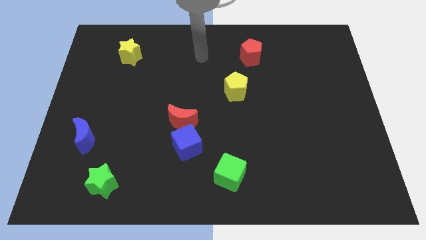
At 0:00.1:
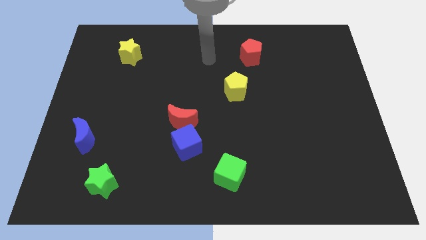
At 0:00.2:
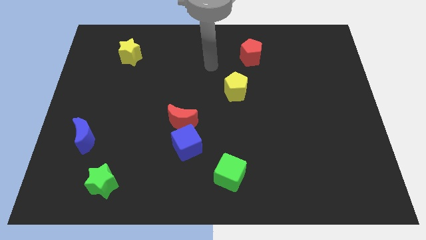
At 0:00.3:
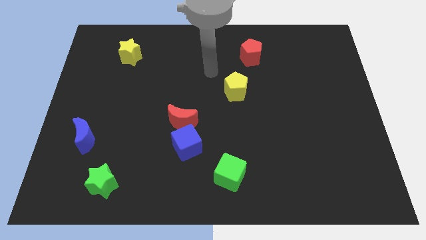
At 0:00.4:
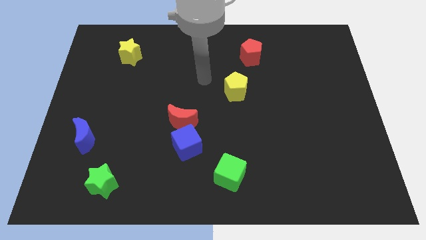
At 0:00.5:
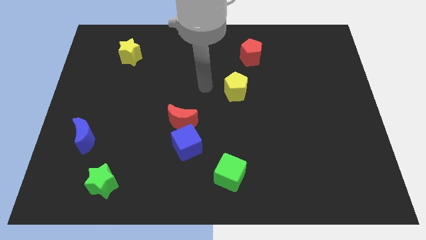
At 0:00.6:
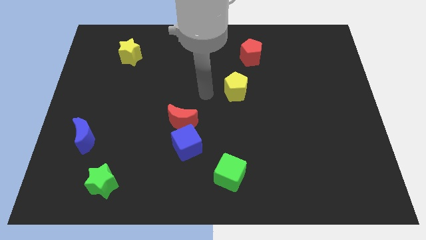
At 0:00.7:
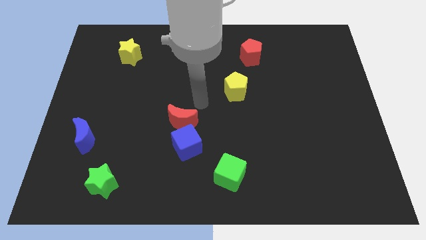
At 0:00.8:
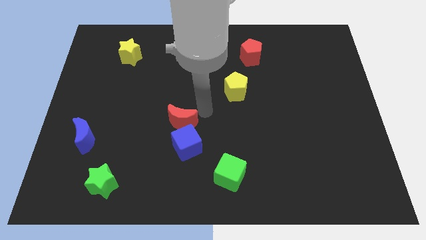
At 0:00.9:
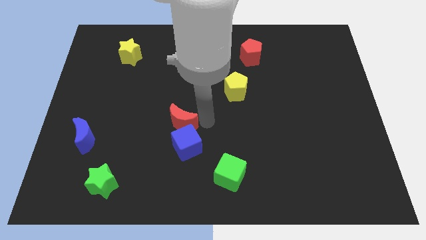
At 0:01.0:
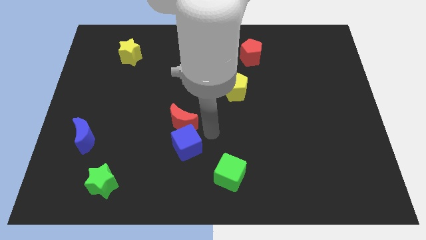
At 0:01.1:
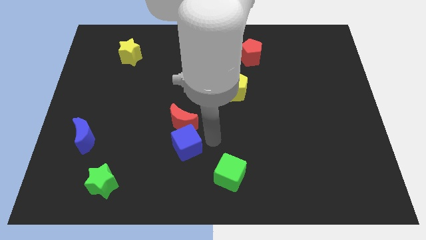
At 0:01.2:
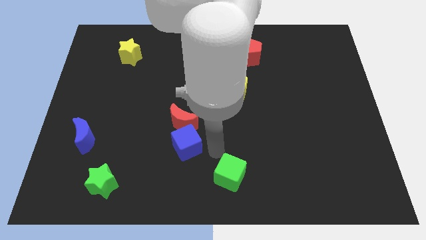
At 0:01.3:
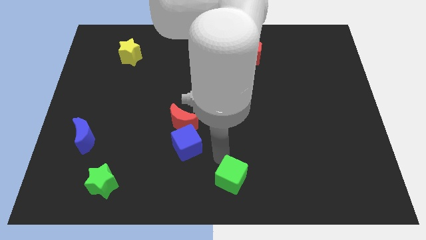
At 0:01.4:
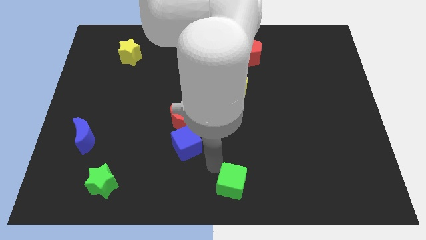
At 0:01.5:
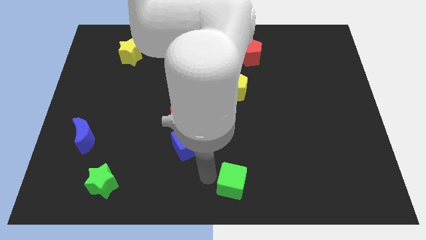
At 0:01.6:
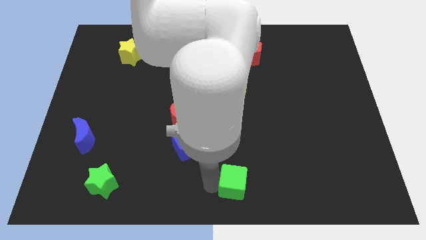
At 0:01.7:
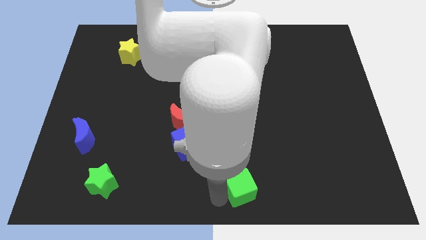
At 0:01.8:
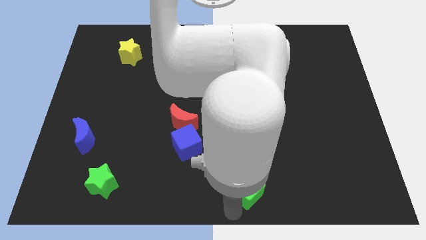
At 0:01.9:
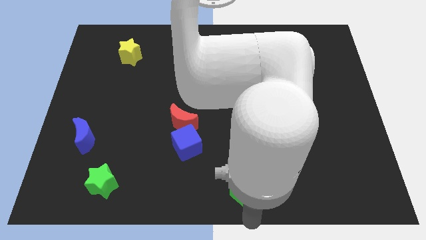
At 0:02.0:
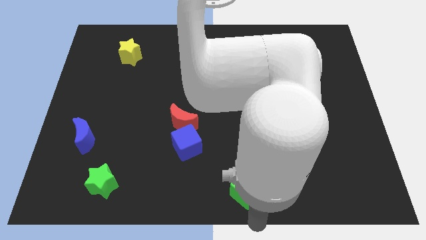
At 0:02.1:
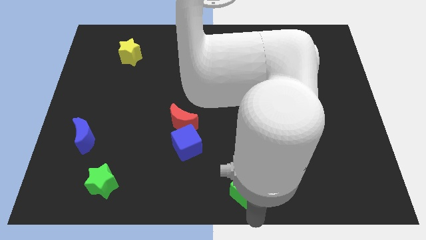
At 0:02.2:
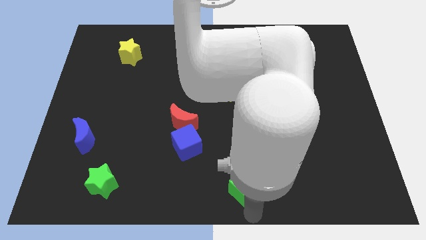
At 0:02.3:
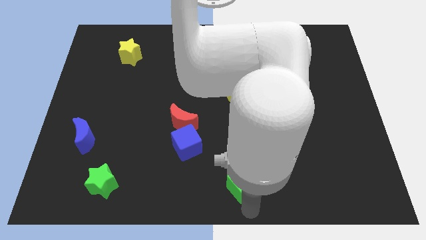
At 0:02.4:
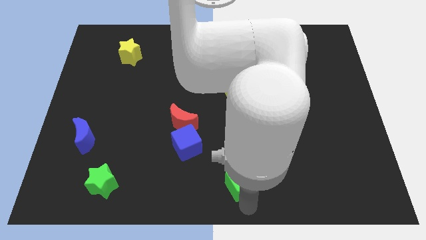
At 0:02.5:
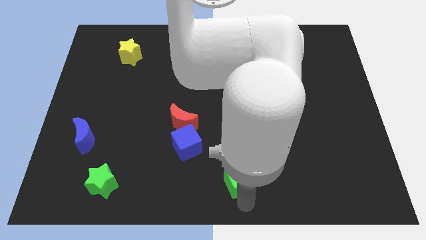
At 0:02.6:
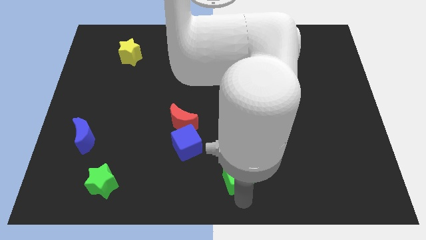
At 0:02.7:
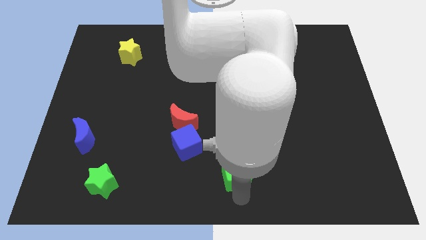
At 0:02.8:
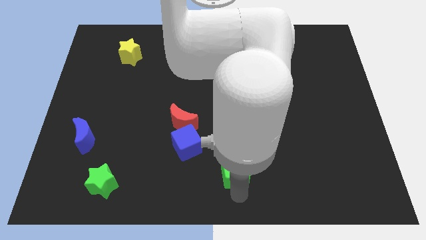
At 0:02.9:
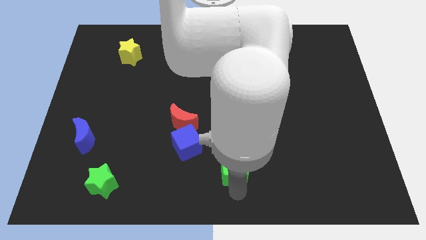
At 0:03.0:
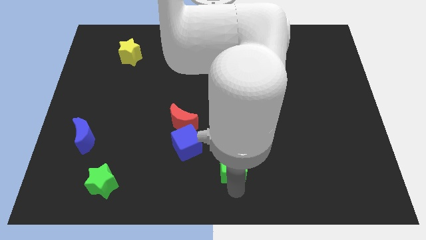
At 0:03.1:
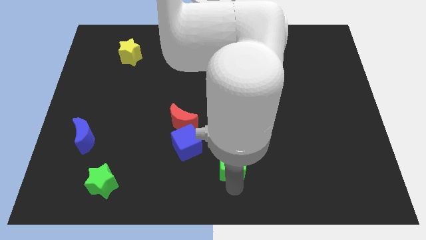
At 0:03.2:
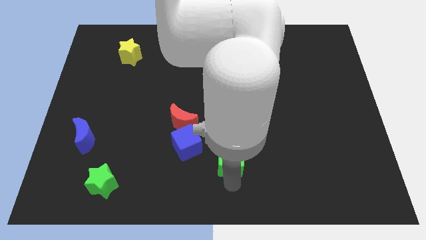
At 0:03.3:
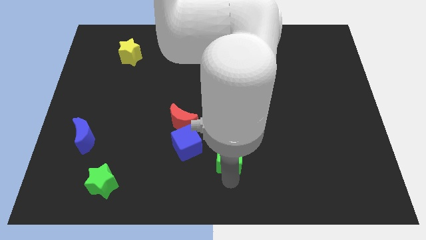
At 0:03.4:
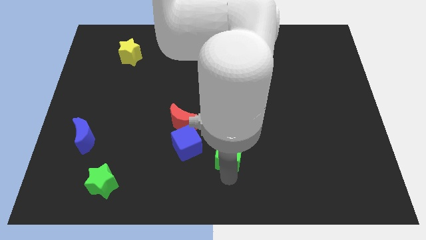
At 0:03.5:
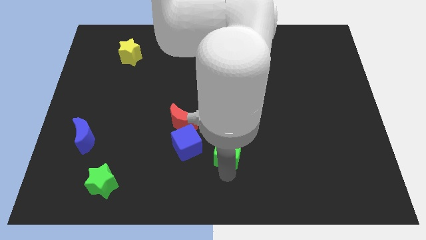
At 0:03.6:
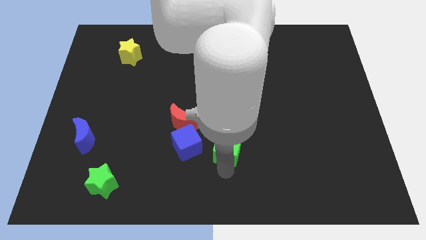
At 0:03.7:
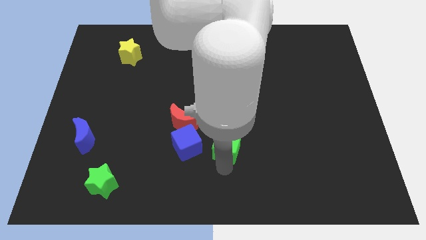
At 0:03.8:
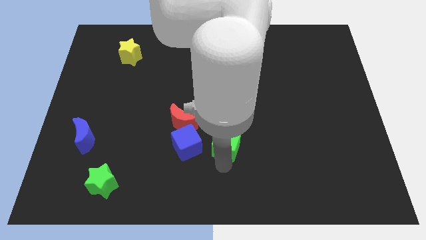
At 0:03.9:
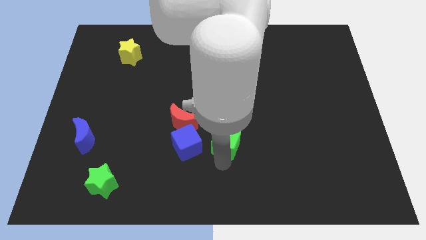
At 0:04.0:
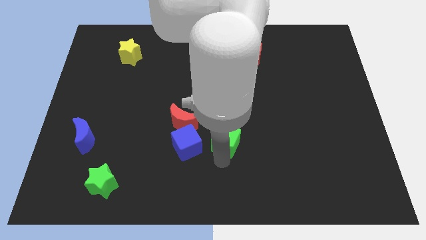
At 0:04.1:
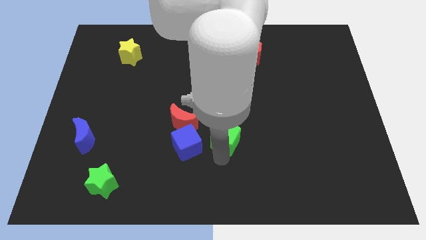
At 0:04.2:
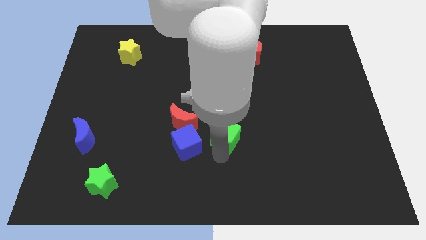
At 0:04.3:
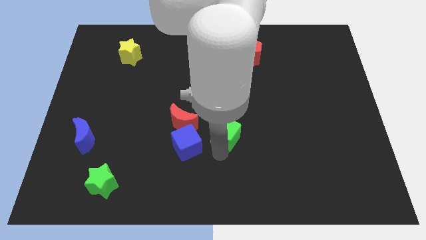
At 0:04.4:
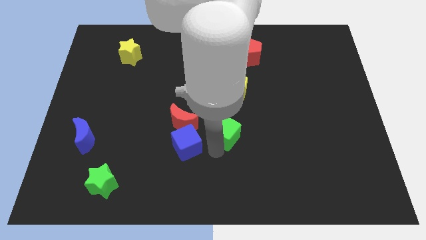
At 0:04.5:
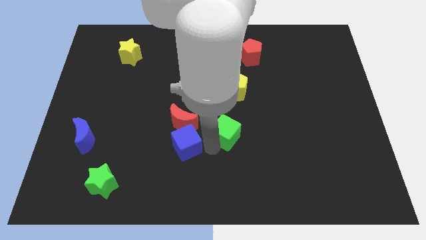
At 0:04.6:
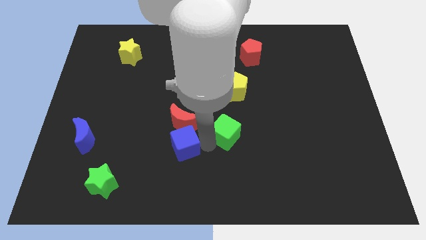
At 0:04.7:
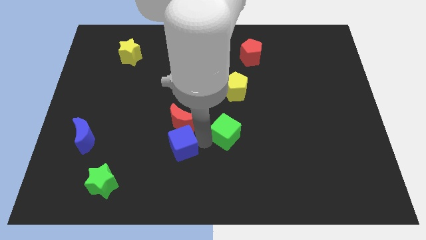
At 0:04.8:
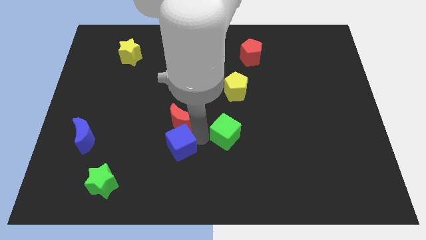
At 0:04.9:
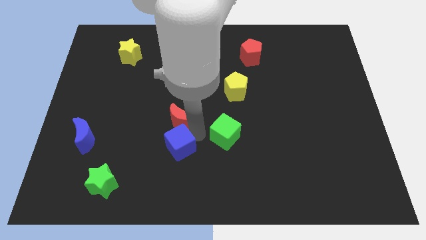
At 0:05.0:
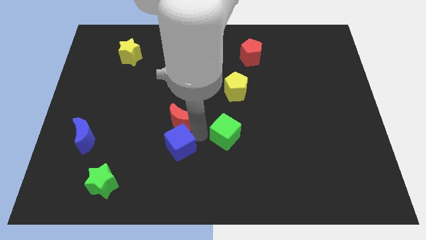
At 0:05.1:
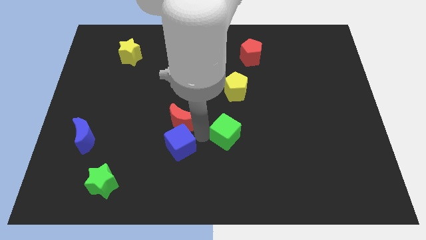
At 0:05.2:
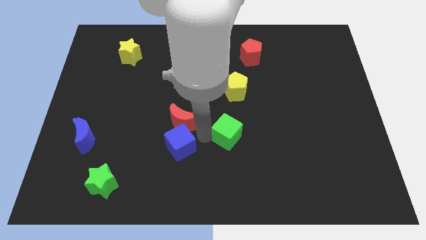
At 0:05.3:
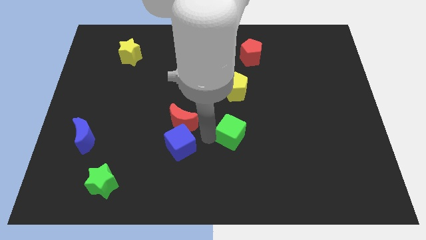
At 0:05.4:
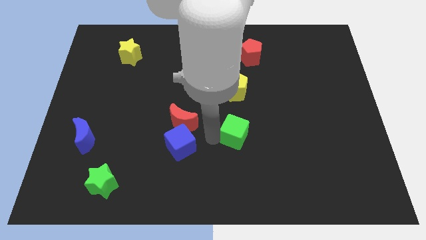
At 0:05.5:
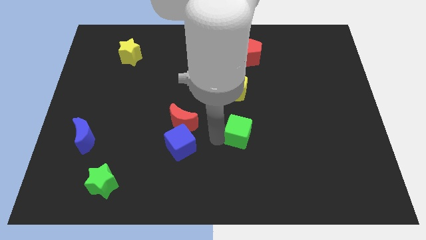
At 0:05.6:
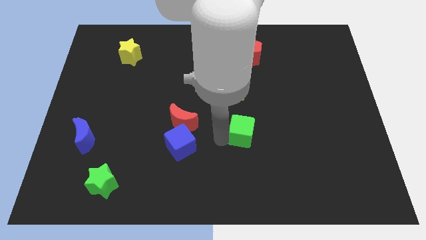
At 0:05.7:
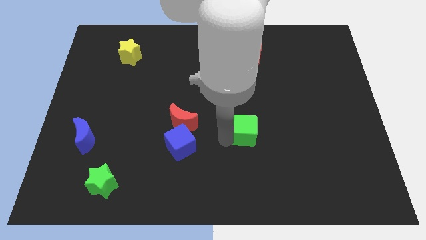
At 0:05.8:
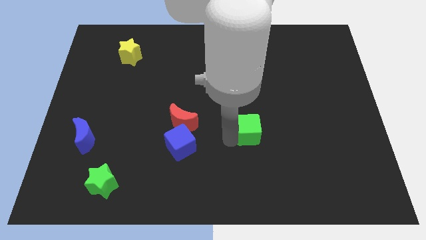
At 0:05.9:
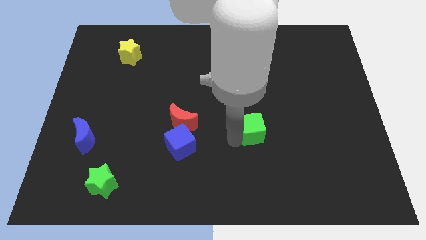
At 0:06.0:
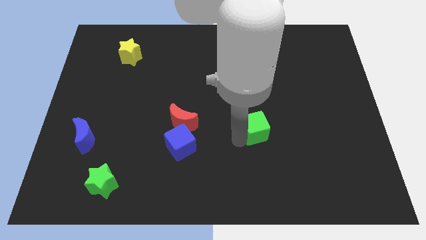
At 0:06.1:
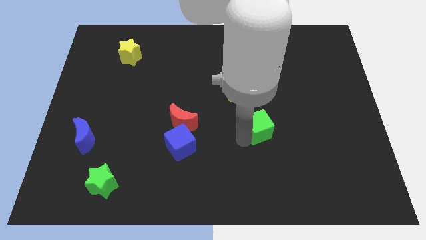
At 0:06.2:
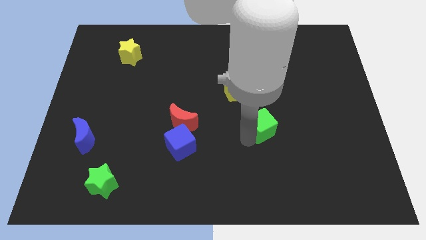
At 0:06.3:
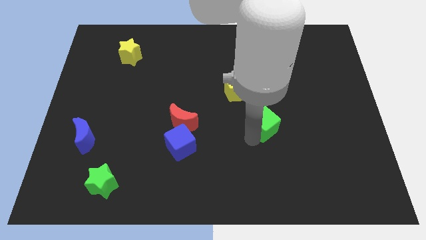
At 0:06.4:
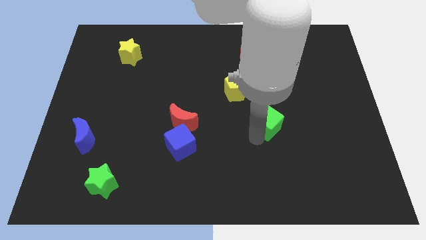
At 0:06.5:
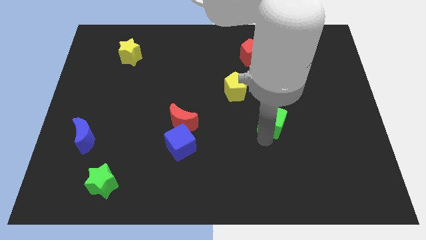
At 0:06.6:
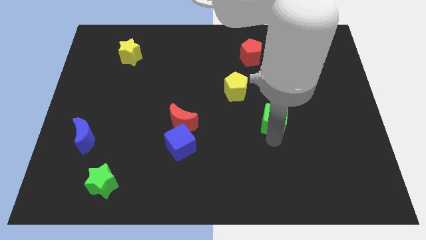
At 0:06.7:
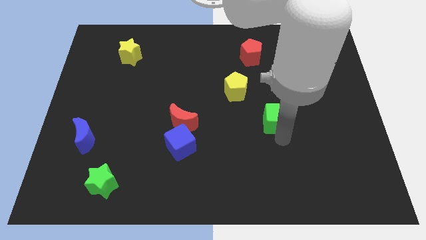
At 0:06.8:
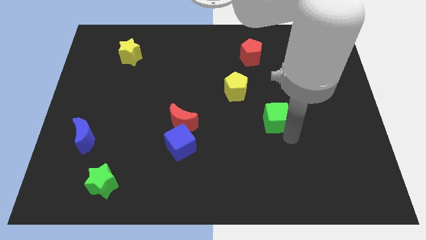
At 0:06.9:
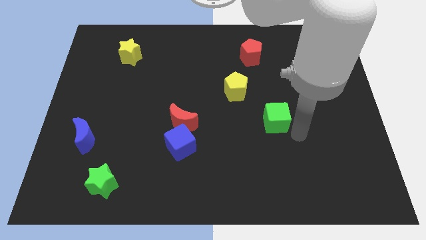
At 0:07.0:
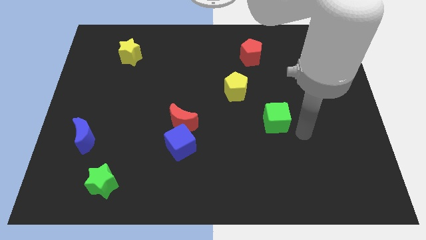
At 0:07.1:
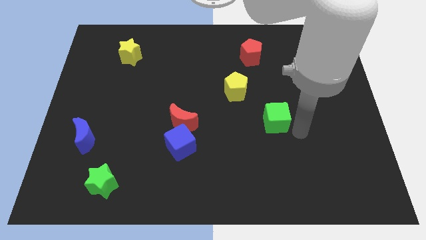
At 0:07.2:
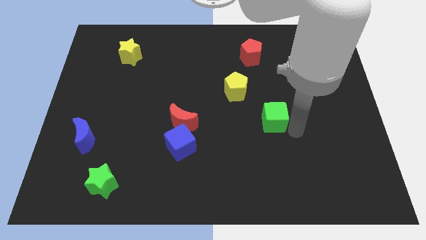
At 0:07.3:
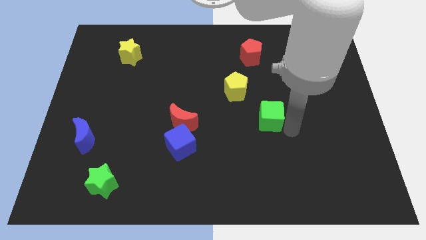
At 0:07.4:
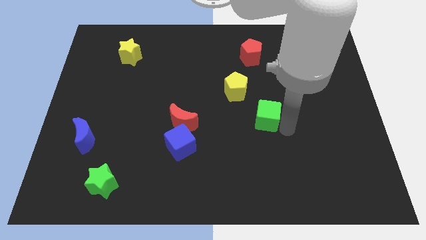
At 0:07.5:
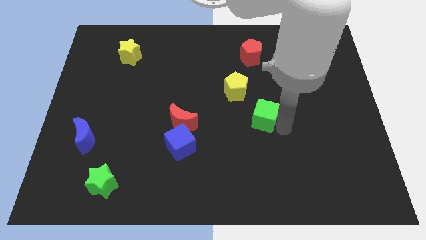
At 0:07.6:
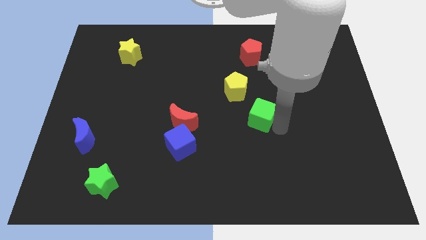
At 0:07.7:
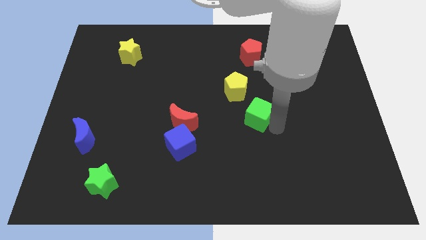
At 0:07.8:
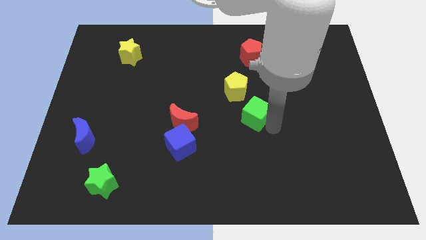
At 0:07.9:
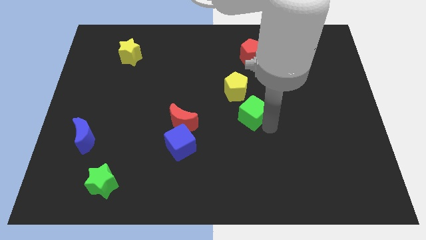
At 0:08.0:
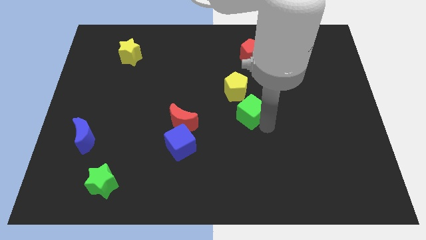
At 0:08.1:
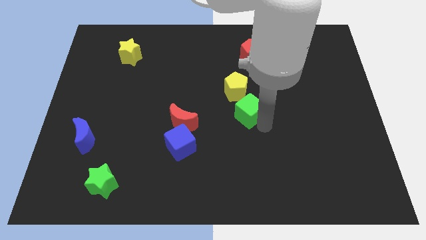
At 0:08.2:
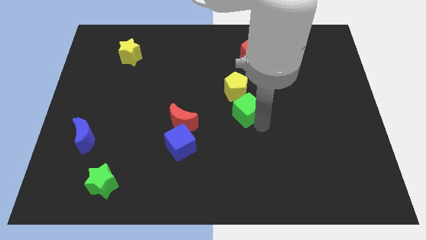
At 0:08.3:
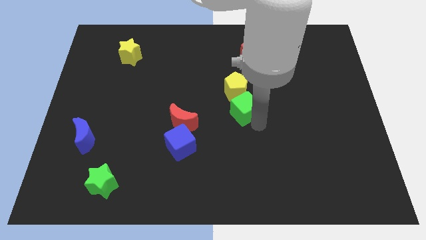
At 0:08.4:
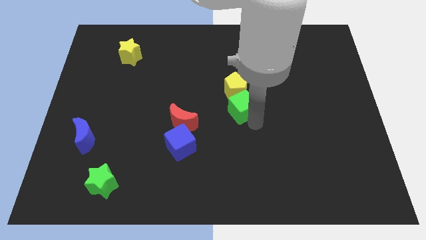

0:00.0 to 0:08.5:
slide the green cube towards the yellow pentagon
